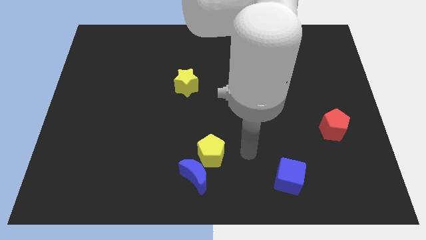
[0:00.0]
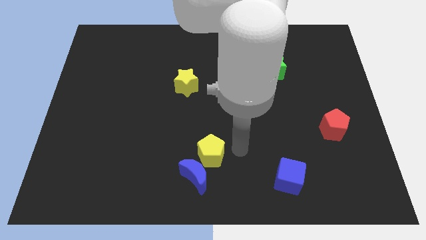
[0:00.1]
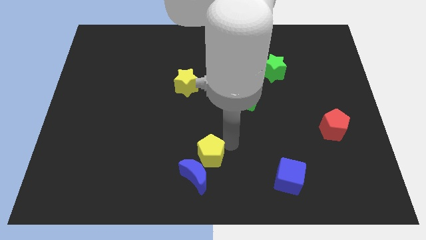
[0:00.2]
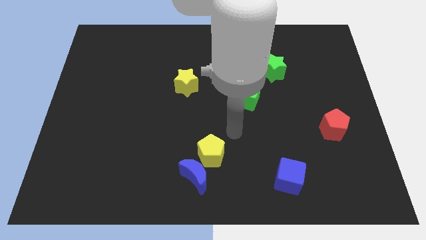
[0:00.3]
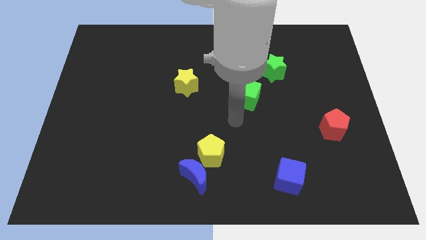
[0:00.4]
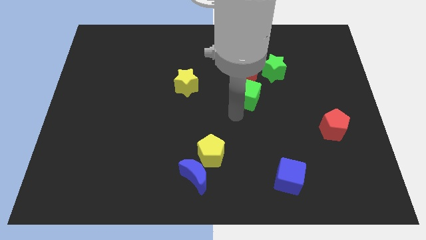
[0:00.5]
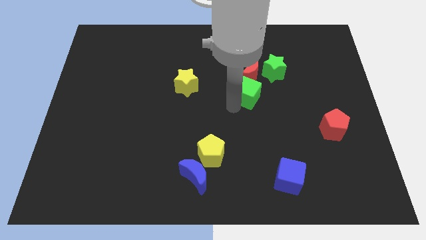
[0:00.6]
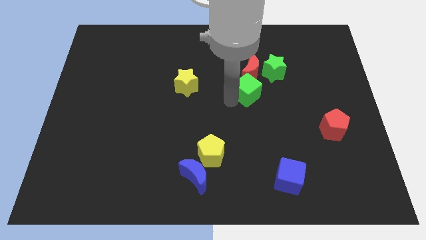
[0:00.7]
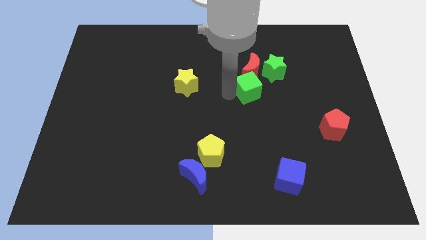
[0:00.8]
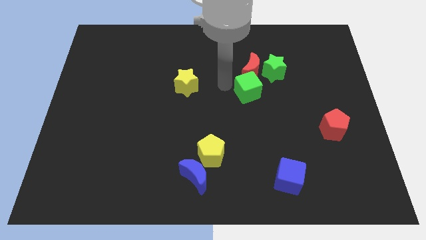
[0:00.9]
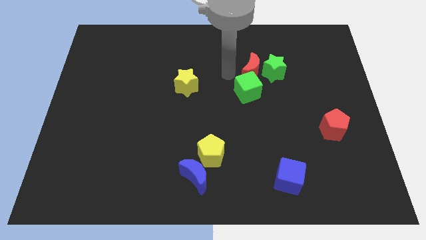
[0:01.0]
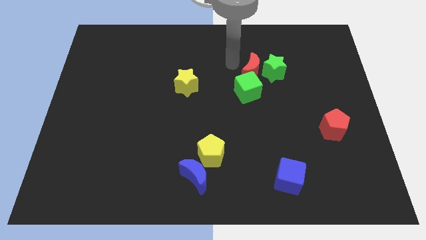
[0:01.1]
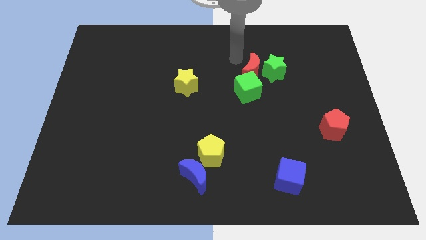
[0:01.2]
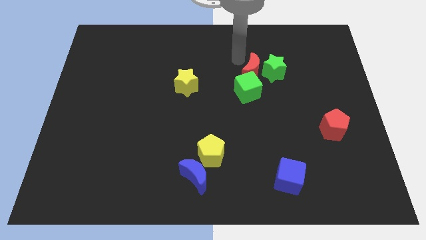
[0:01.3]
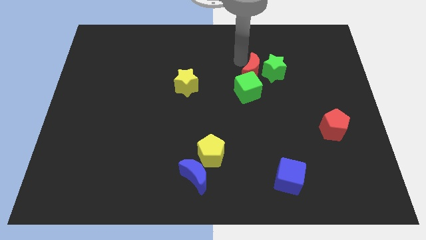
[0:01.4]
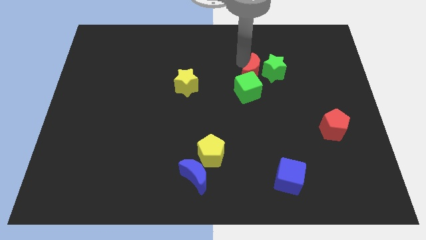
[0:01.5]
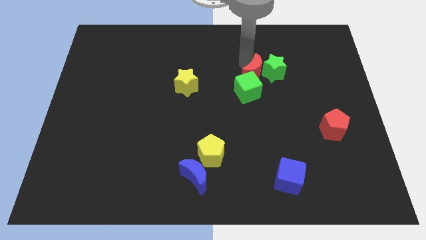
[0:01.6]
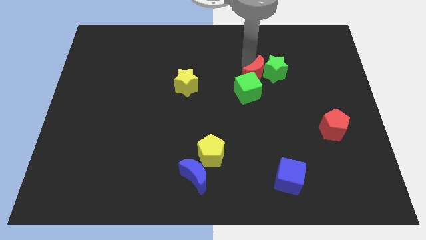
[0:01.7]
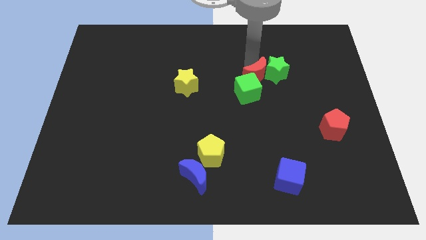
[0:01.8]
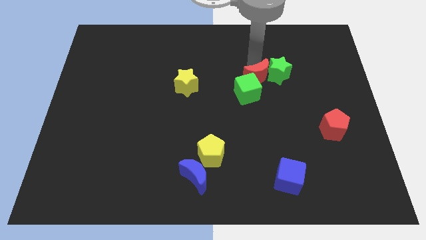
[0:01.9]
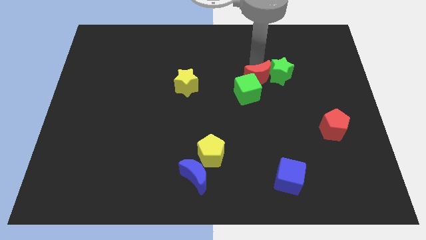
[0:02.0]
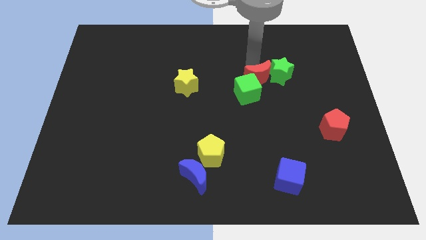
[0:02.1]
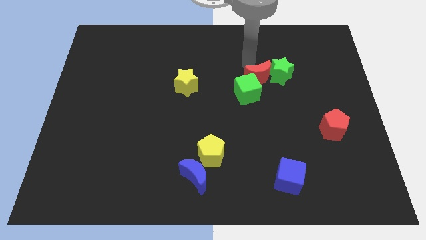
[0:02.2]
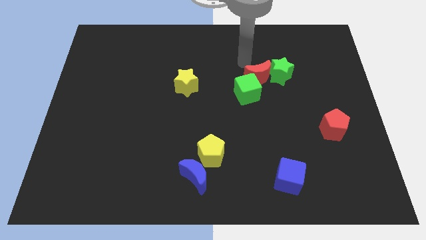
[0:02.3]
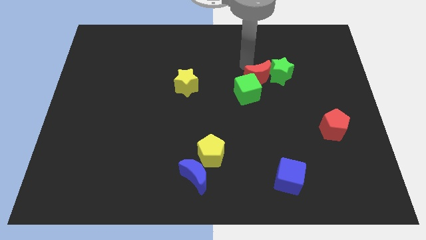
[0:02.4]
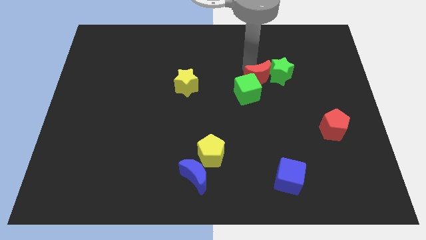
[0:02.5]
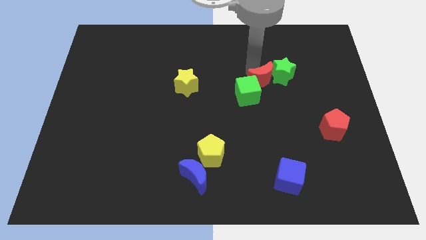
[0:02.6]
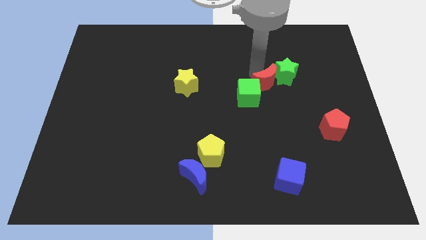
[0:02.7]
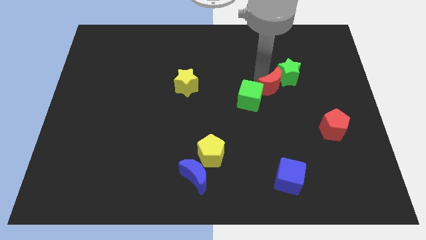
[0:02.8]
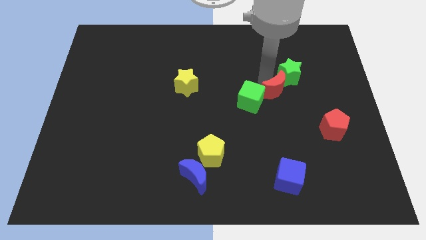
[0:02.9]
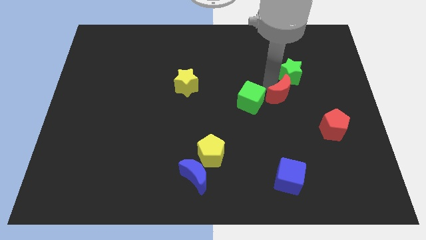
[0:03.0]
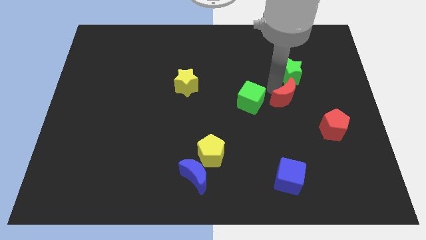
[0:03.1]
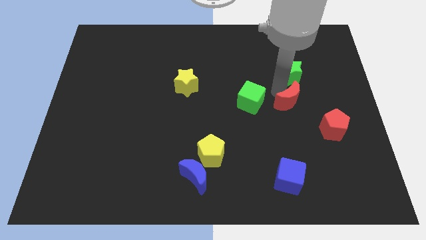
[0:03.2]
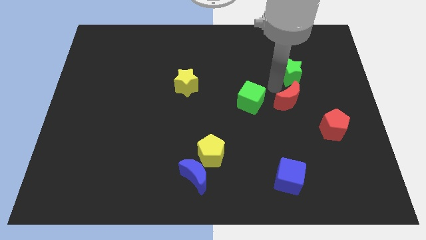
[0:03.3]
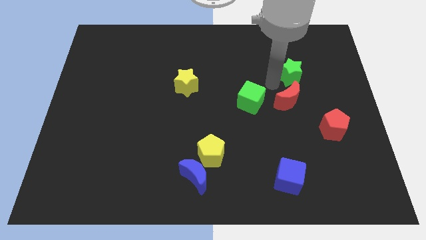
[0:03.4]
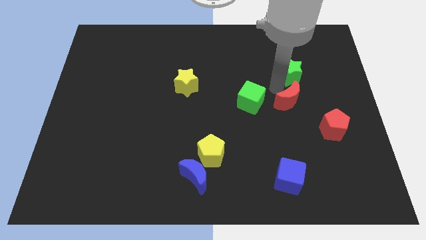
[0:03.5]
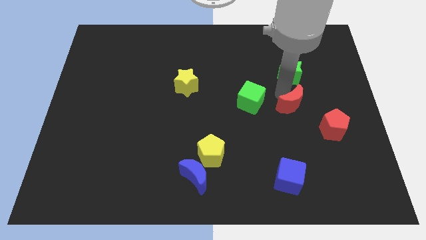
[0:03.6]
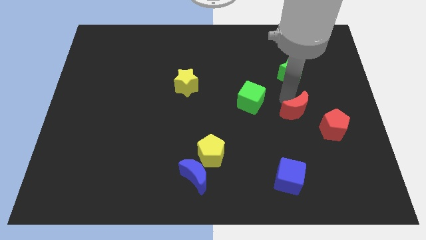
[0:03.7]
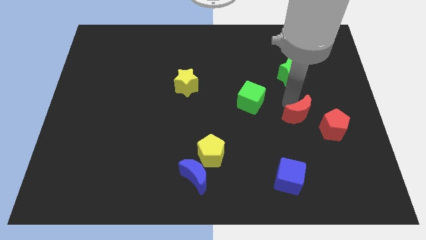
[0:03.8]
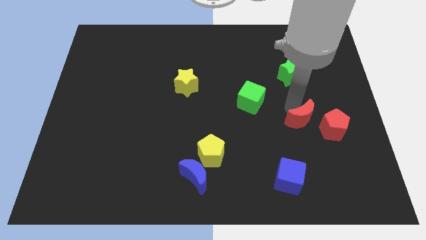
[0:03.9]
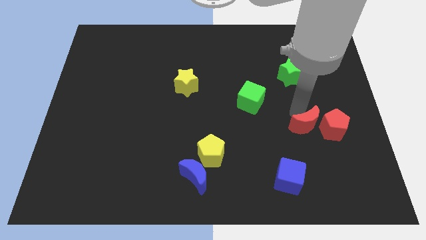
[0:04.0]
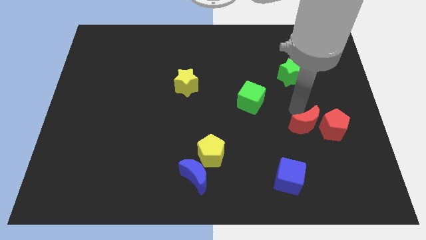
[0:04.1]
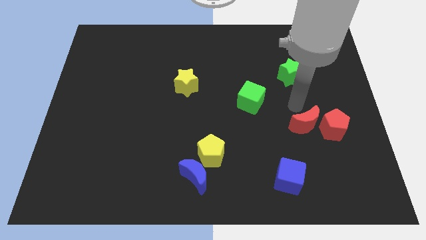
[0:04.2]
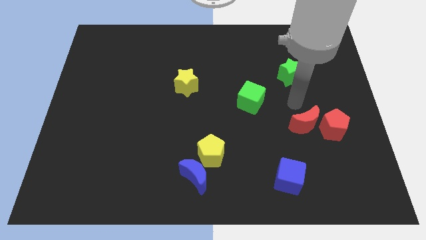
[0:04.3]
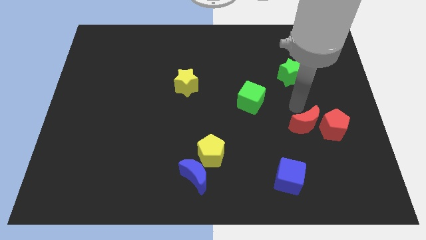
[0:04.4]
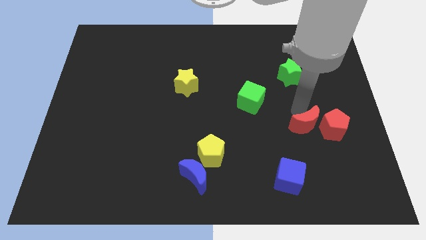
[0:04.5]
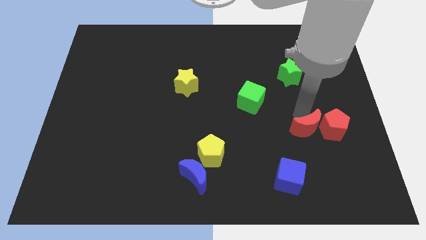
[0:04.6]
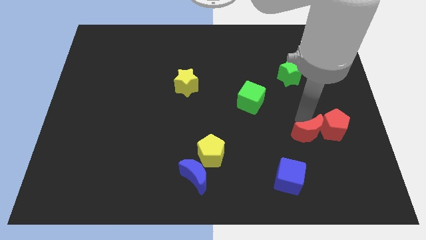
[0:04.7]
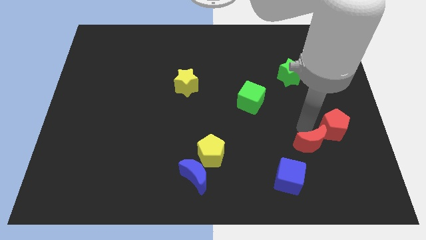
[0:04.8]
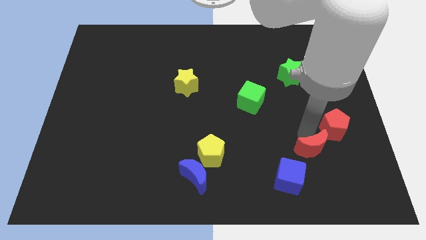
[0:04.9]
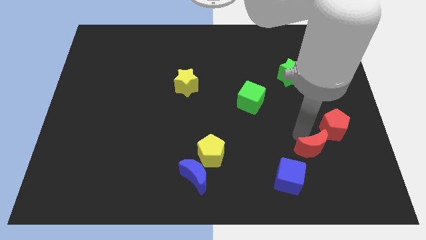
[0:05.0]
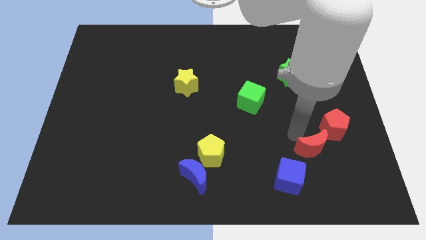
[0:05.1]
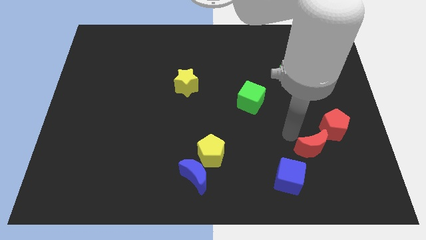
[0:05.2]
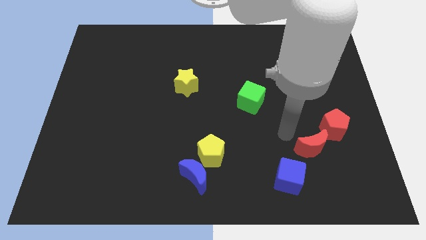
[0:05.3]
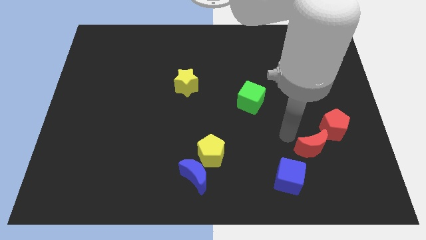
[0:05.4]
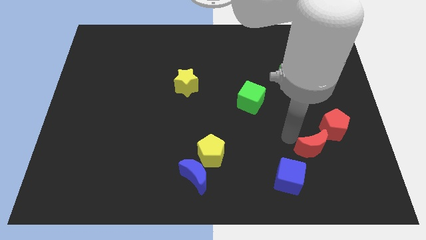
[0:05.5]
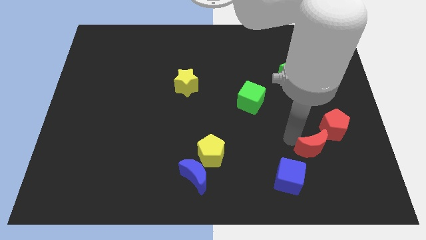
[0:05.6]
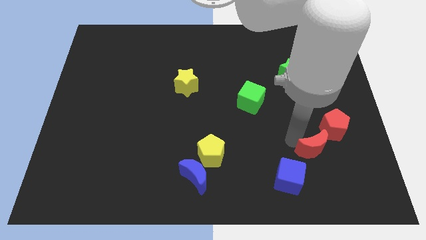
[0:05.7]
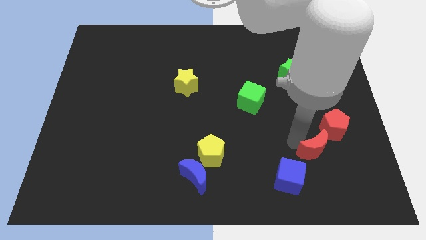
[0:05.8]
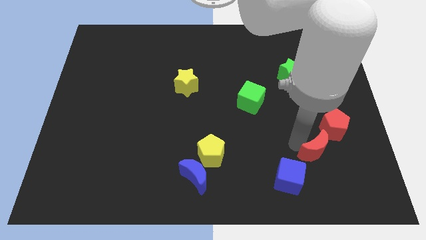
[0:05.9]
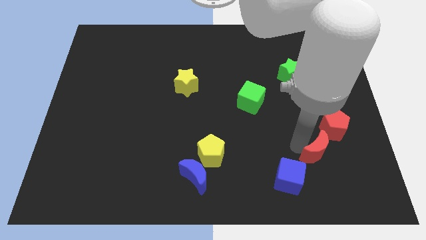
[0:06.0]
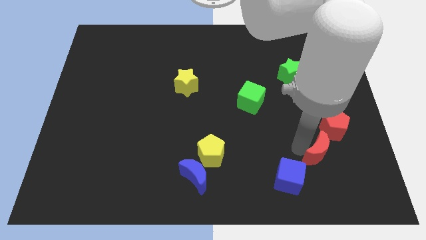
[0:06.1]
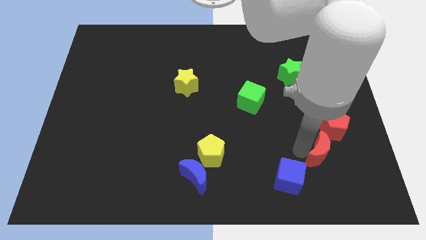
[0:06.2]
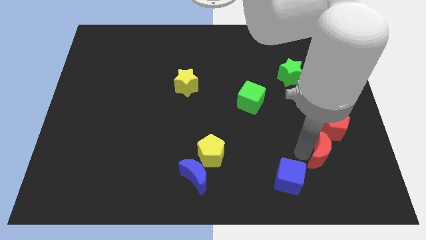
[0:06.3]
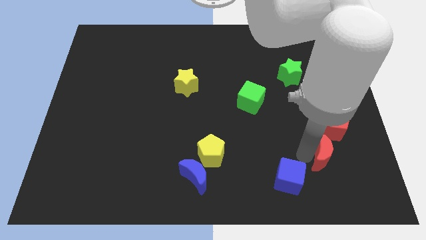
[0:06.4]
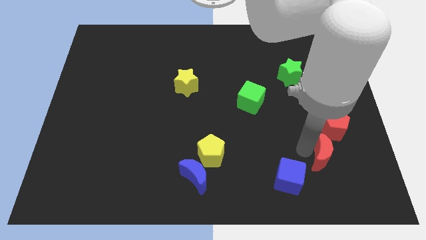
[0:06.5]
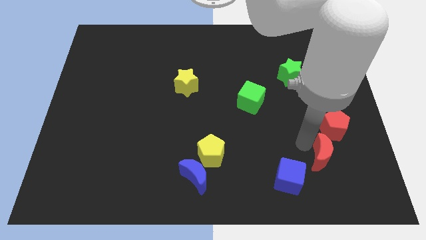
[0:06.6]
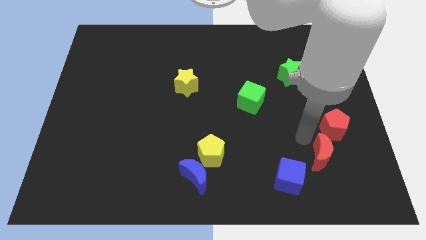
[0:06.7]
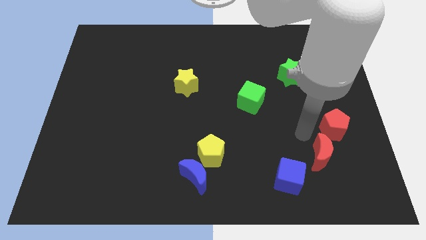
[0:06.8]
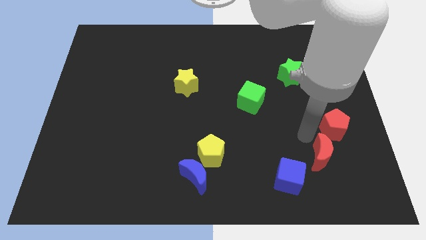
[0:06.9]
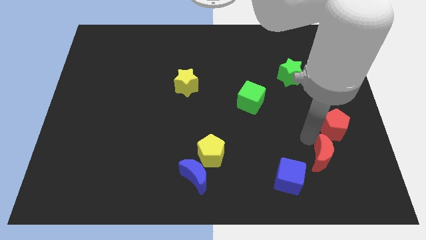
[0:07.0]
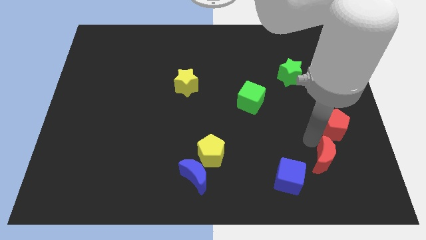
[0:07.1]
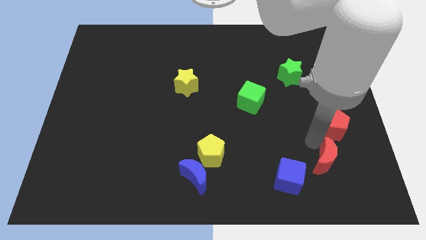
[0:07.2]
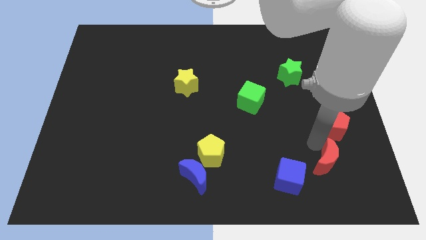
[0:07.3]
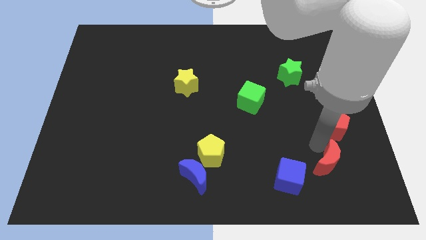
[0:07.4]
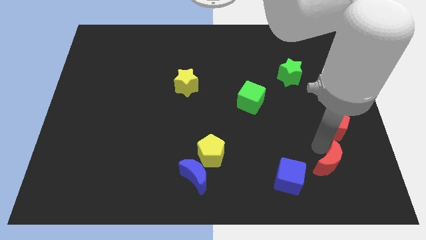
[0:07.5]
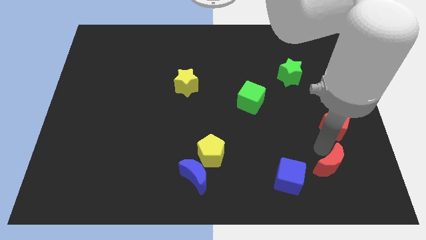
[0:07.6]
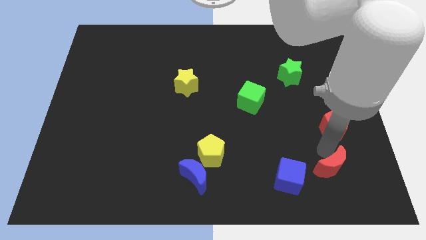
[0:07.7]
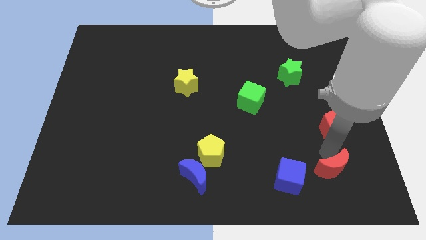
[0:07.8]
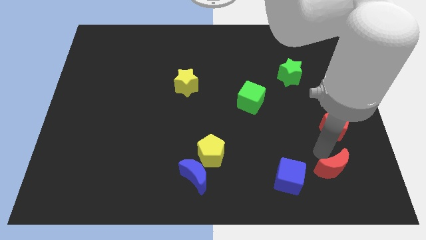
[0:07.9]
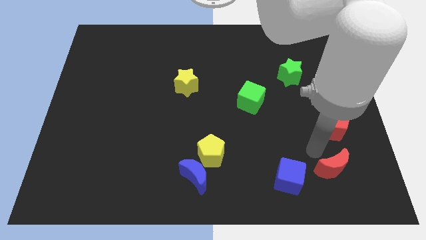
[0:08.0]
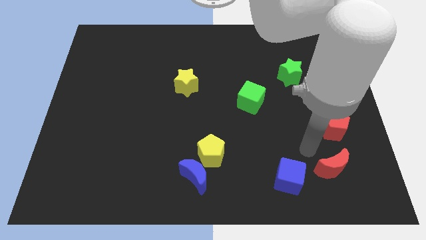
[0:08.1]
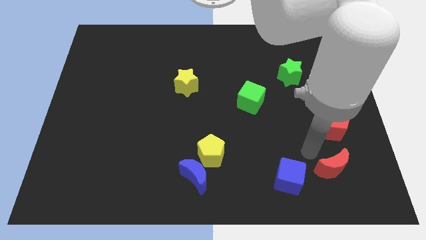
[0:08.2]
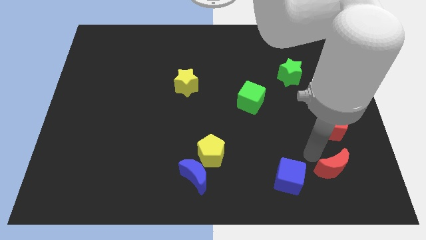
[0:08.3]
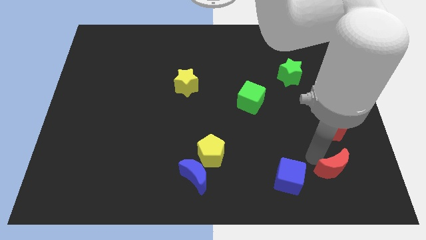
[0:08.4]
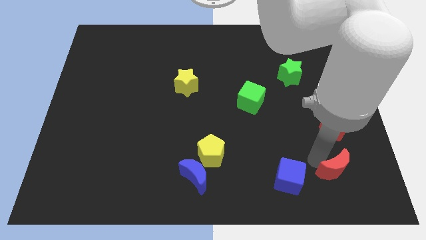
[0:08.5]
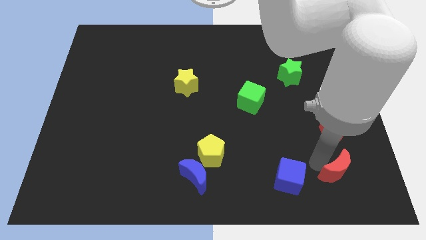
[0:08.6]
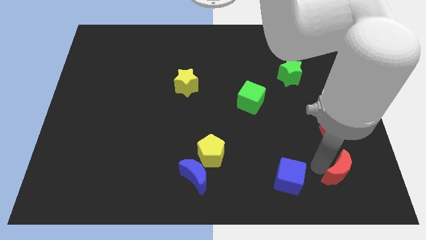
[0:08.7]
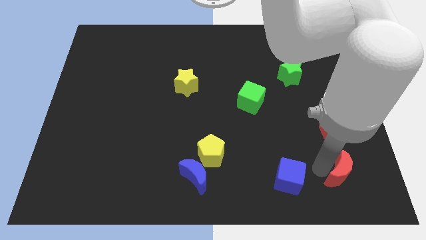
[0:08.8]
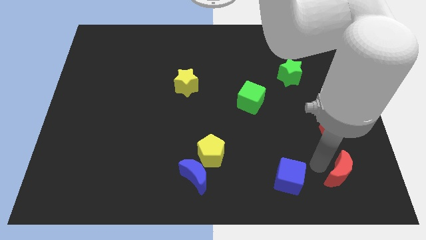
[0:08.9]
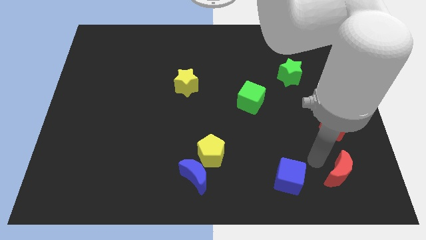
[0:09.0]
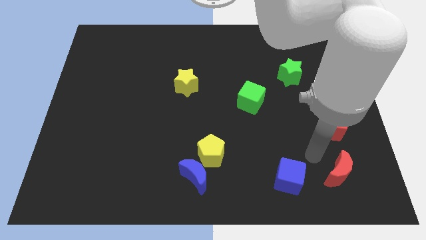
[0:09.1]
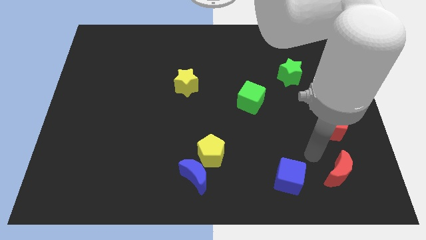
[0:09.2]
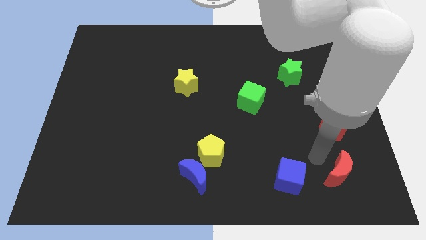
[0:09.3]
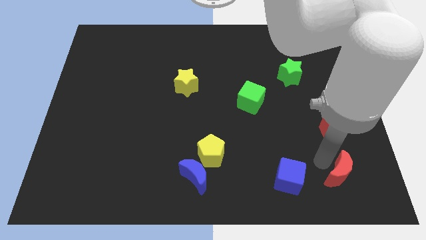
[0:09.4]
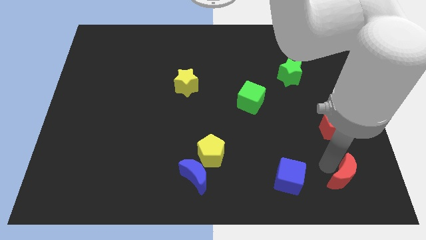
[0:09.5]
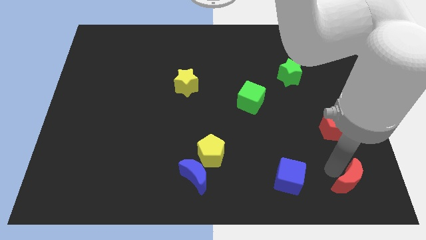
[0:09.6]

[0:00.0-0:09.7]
push the red moon to the bottom right
